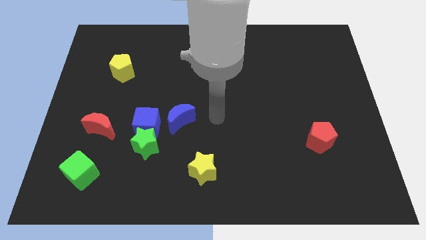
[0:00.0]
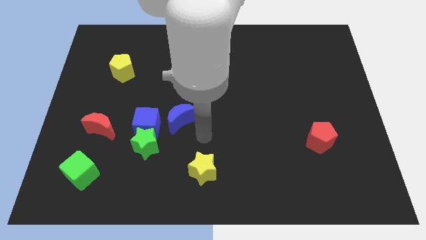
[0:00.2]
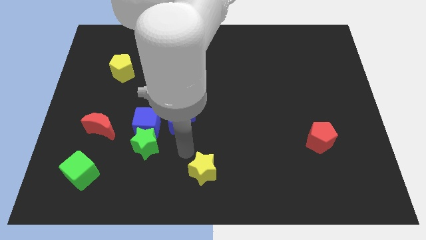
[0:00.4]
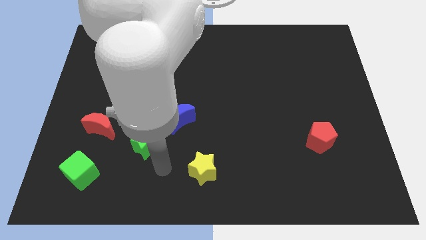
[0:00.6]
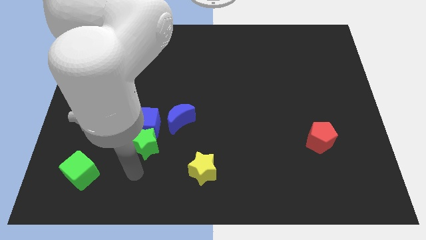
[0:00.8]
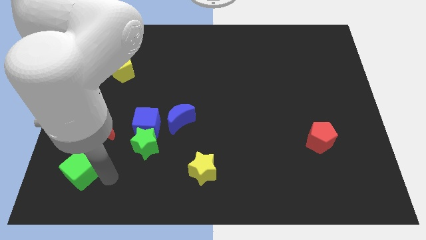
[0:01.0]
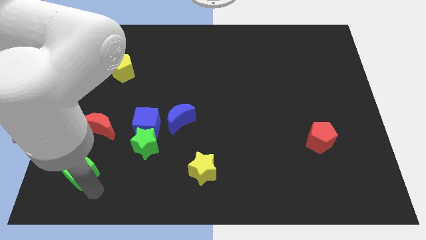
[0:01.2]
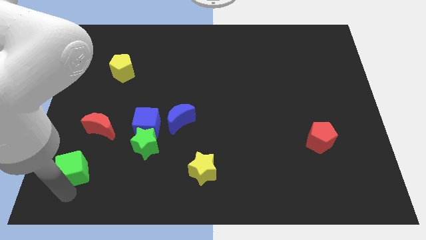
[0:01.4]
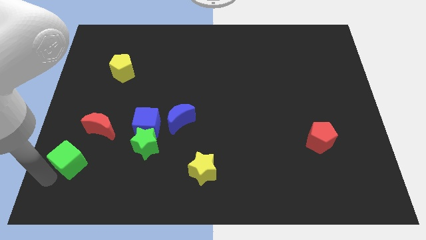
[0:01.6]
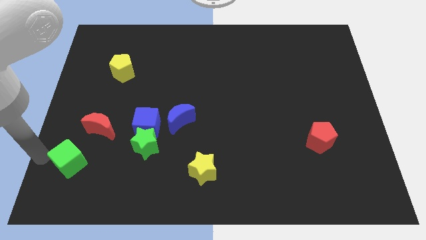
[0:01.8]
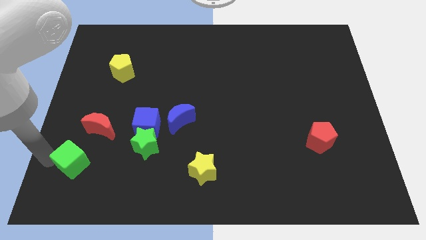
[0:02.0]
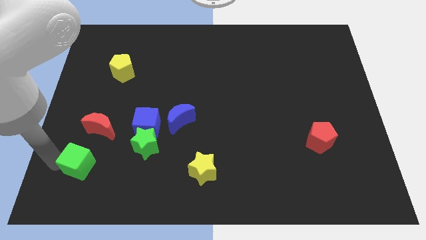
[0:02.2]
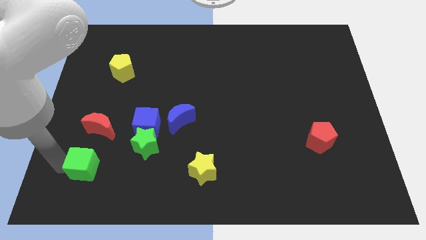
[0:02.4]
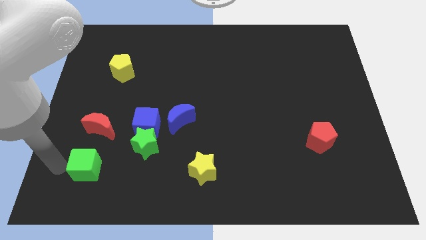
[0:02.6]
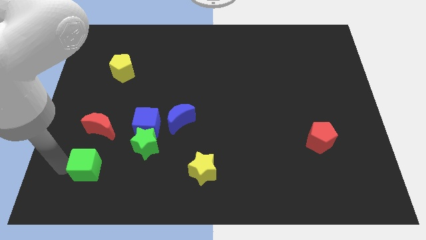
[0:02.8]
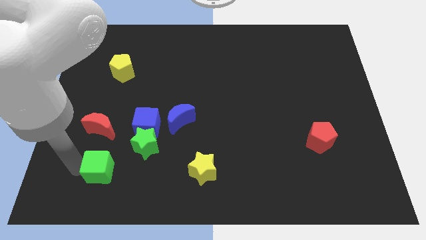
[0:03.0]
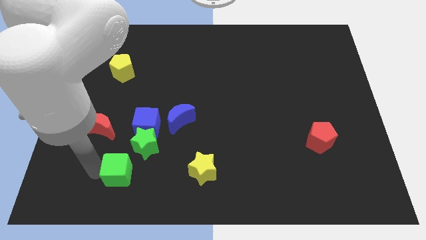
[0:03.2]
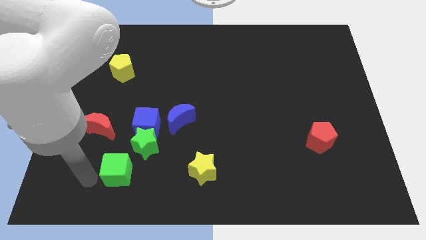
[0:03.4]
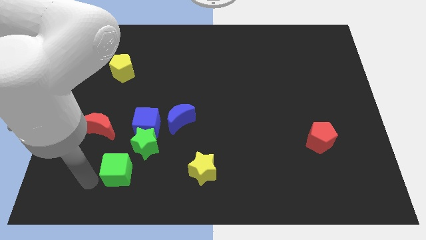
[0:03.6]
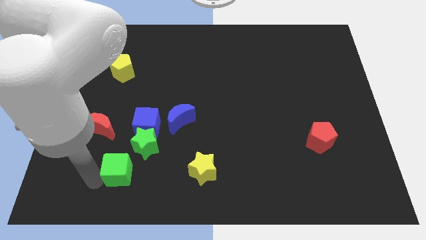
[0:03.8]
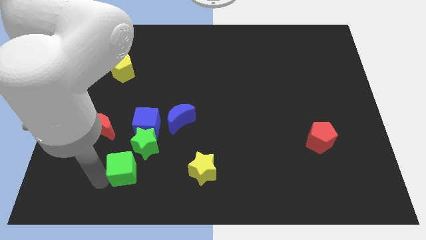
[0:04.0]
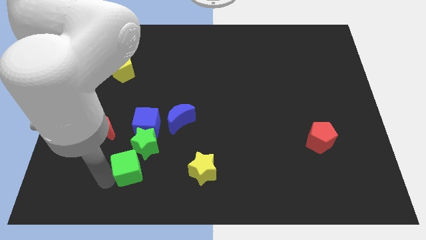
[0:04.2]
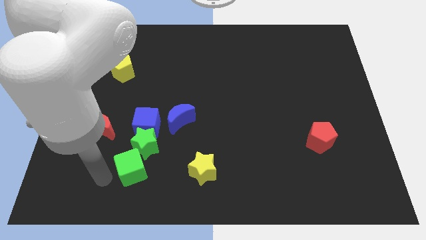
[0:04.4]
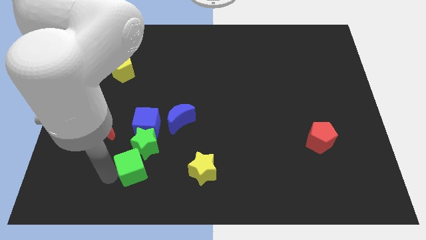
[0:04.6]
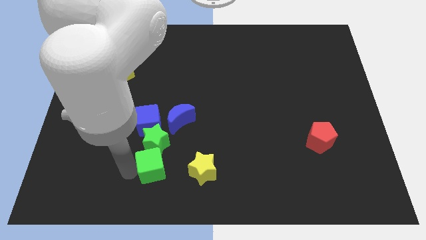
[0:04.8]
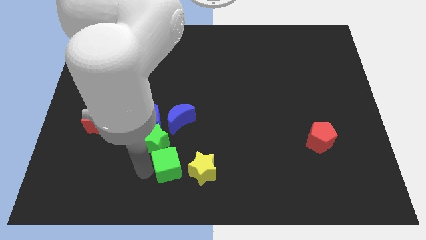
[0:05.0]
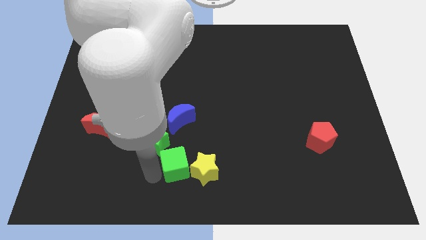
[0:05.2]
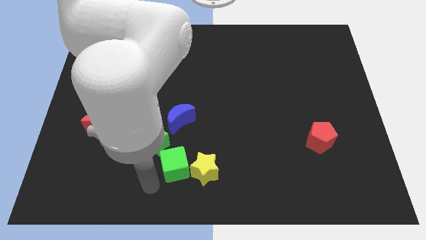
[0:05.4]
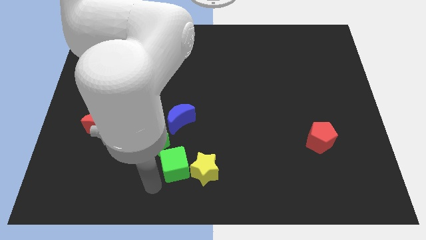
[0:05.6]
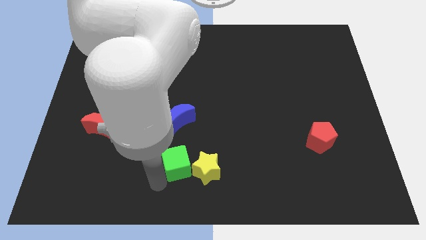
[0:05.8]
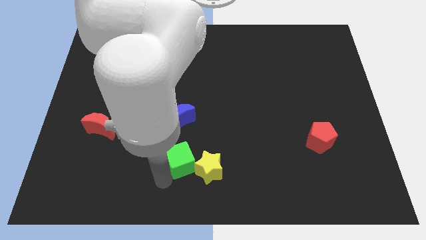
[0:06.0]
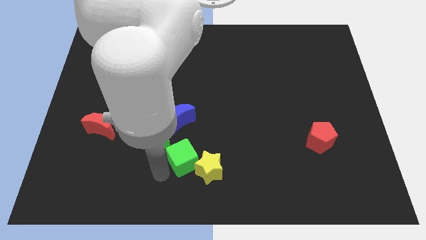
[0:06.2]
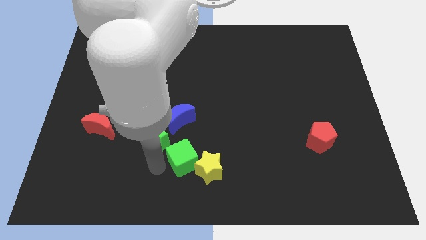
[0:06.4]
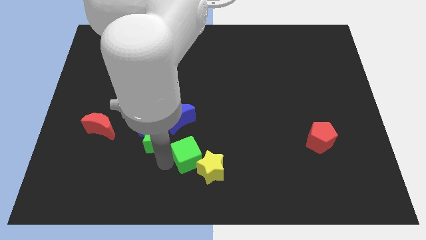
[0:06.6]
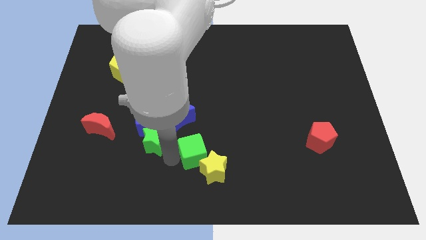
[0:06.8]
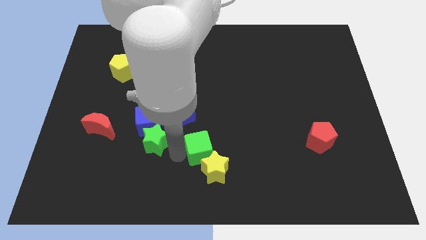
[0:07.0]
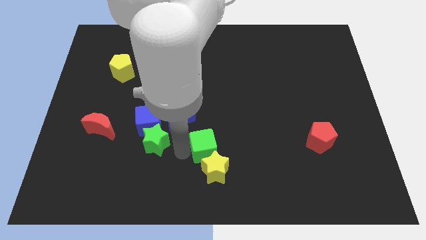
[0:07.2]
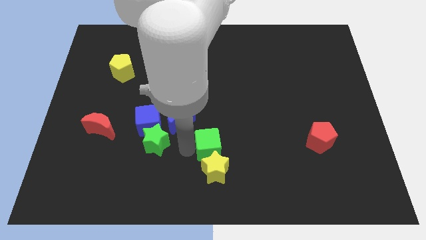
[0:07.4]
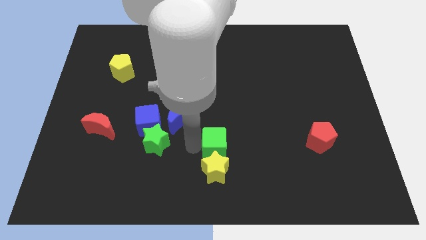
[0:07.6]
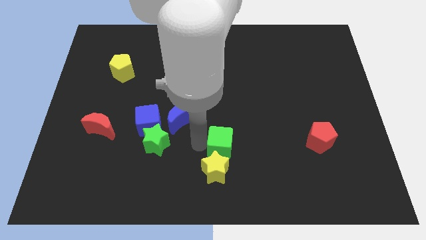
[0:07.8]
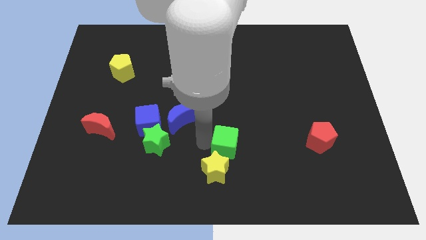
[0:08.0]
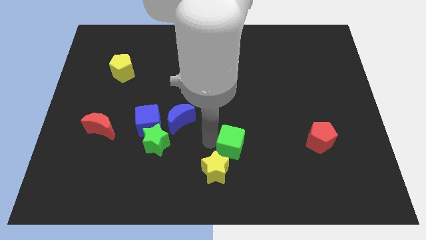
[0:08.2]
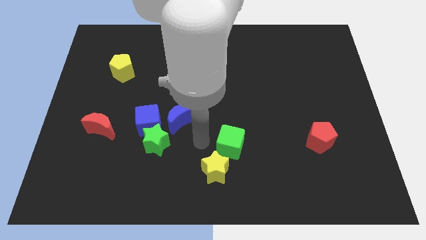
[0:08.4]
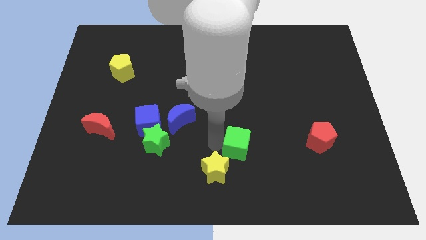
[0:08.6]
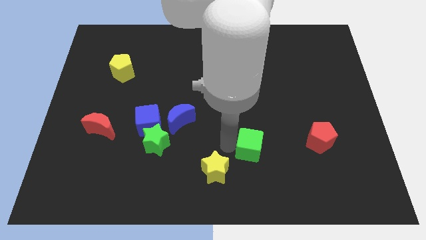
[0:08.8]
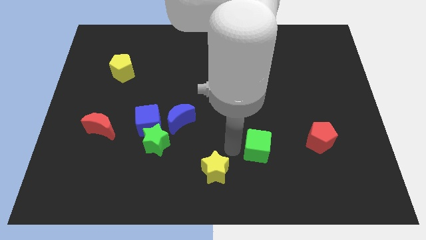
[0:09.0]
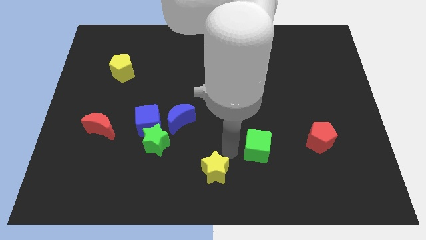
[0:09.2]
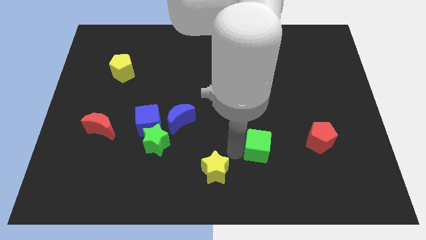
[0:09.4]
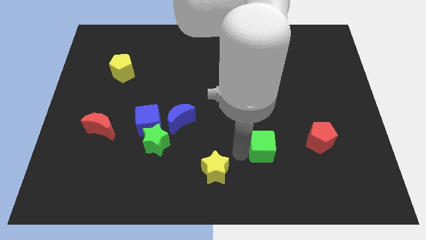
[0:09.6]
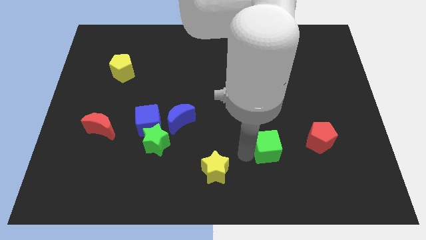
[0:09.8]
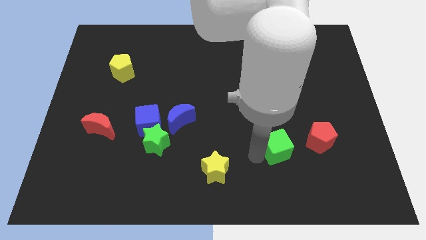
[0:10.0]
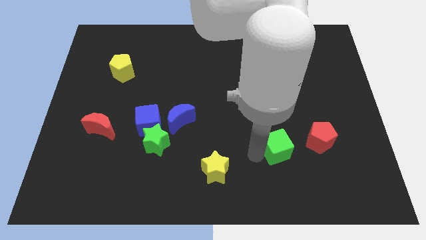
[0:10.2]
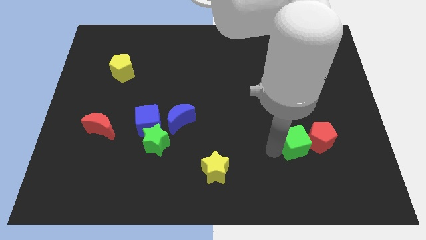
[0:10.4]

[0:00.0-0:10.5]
slide the green cube next to the red pentagon

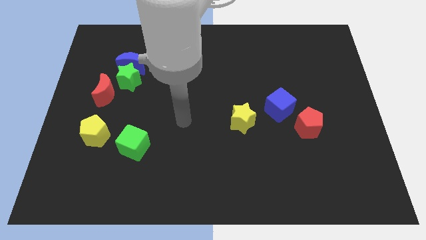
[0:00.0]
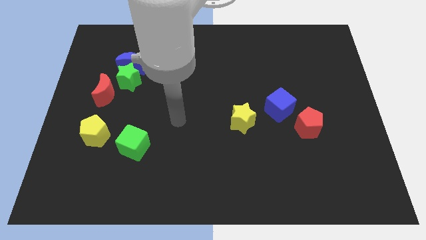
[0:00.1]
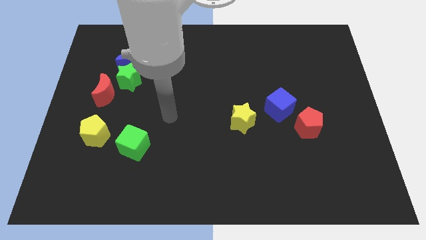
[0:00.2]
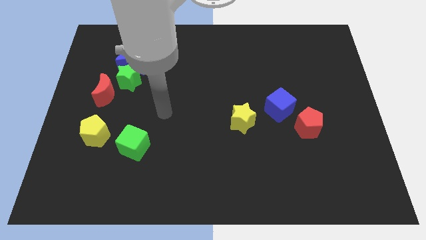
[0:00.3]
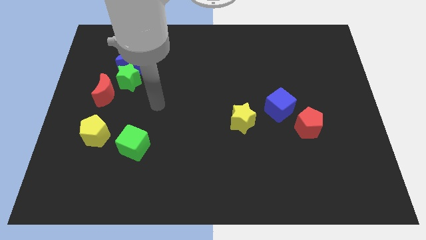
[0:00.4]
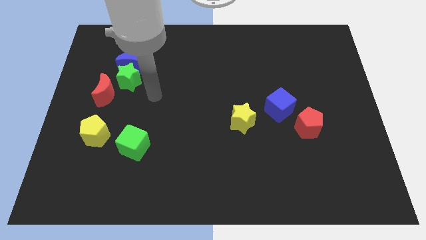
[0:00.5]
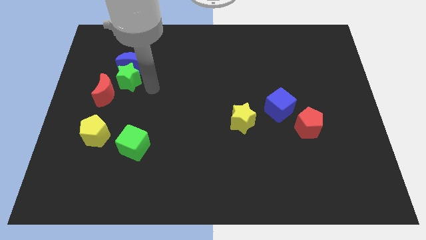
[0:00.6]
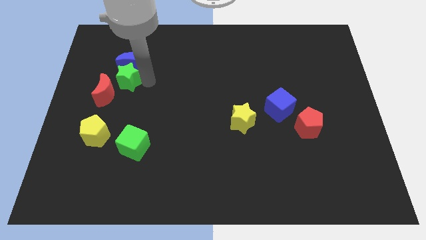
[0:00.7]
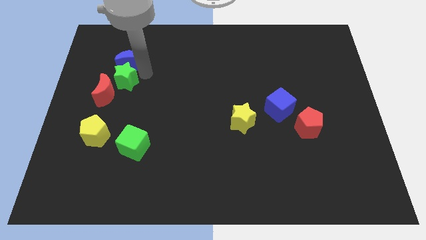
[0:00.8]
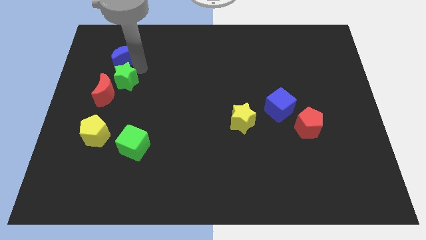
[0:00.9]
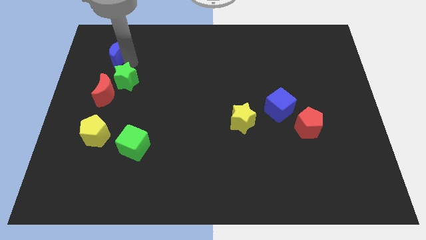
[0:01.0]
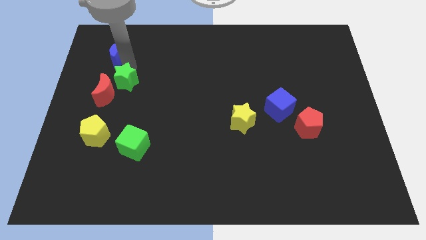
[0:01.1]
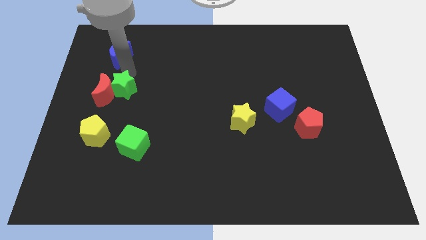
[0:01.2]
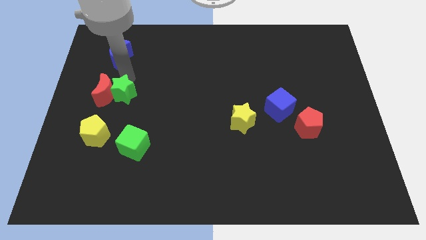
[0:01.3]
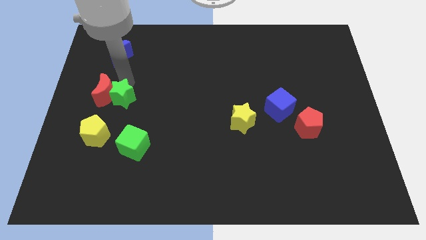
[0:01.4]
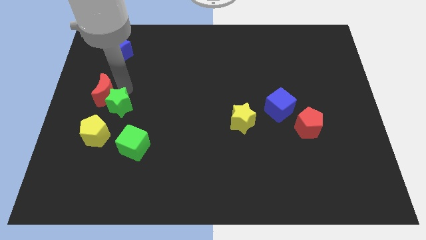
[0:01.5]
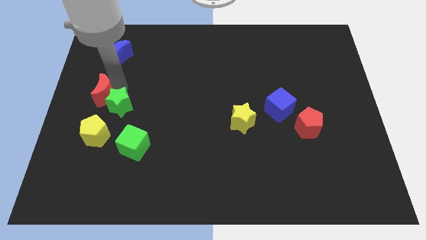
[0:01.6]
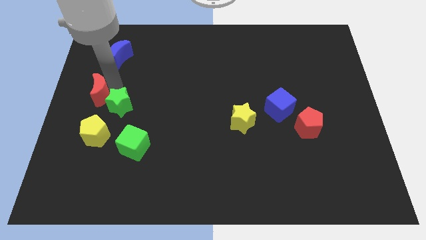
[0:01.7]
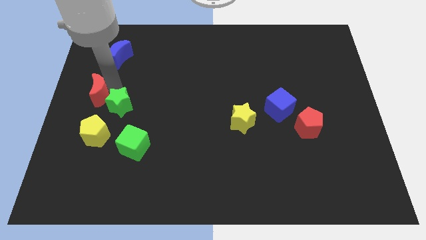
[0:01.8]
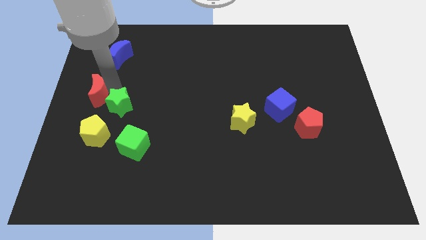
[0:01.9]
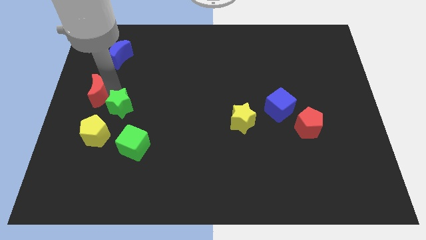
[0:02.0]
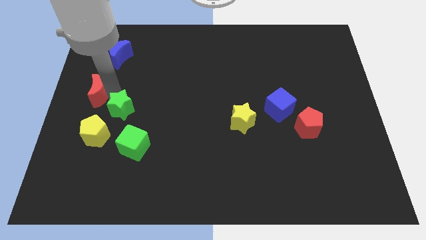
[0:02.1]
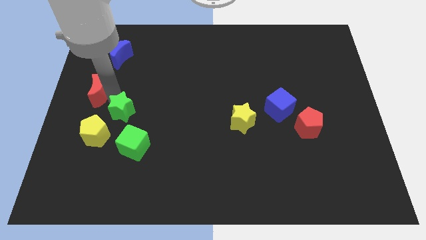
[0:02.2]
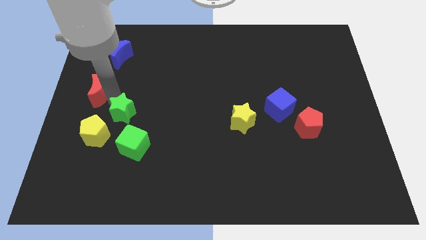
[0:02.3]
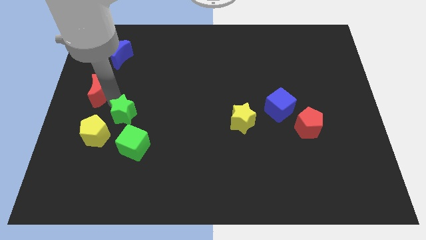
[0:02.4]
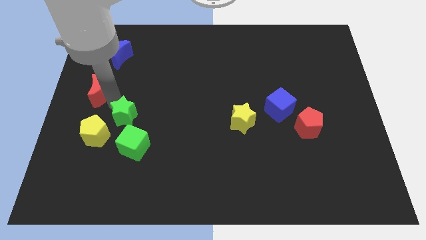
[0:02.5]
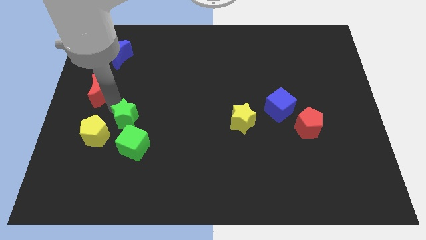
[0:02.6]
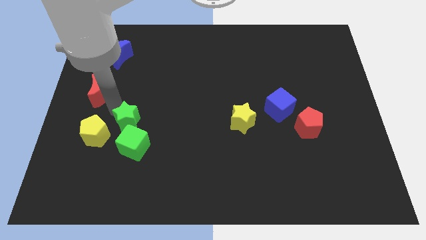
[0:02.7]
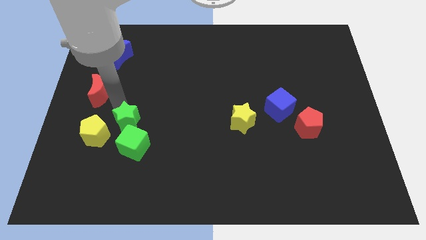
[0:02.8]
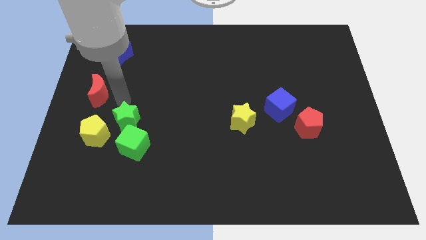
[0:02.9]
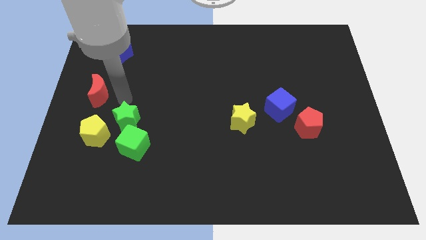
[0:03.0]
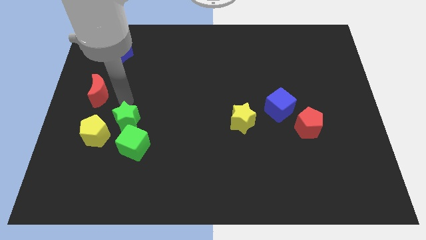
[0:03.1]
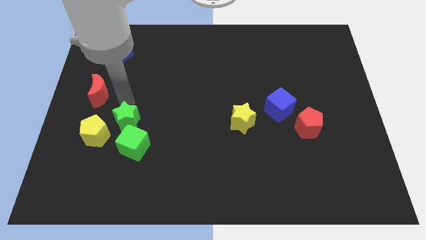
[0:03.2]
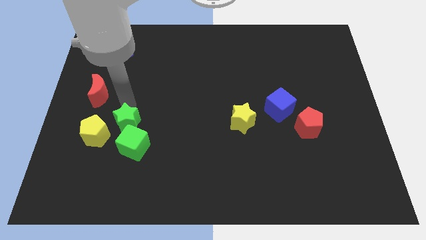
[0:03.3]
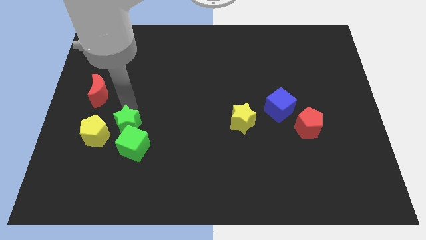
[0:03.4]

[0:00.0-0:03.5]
move the green star close to the green cube
